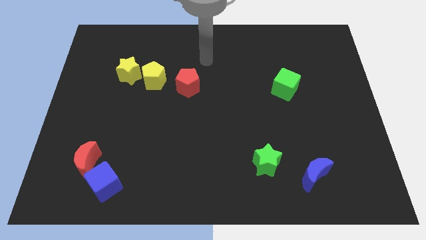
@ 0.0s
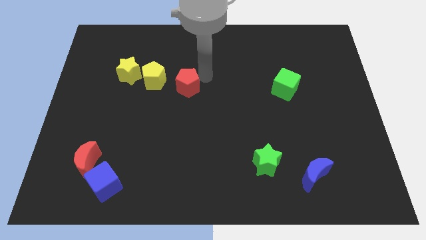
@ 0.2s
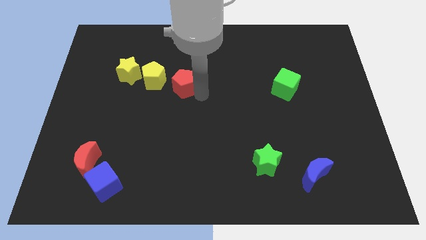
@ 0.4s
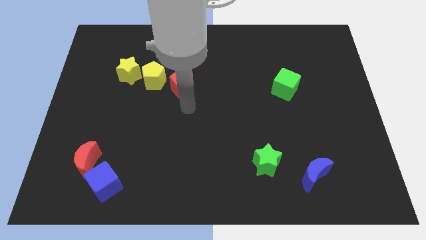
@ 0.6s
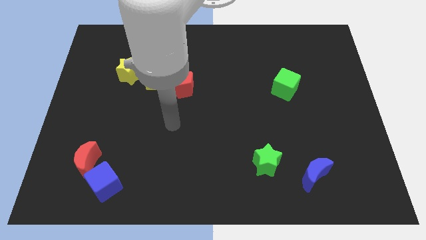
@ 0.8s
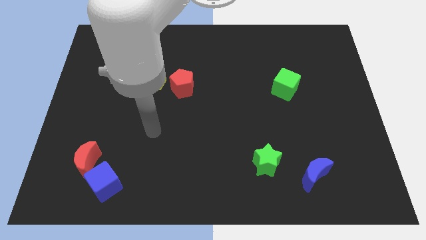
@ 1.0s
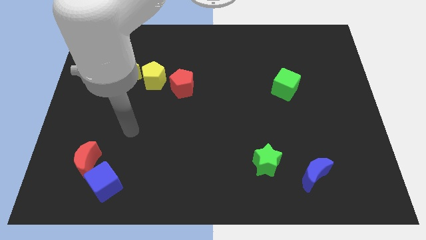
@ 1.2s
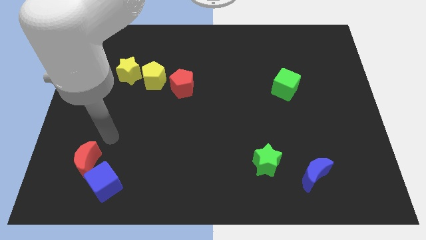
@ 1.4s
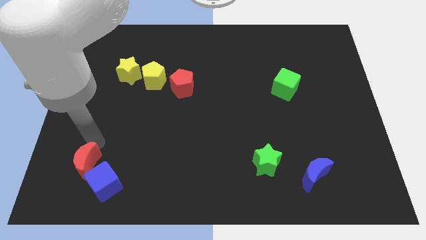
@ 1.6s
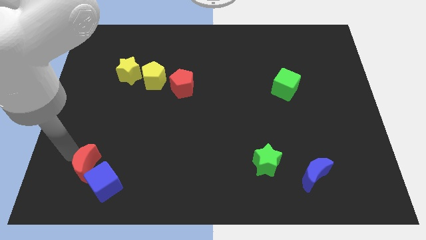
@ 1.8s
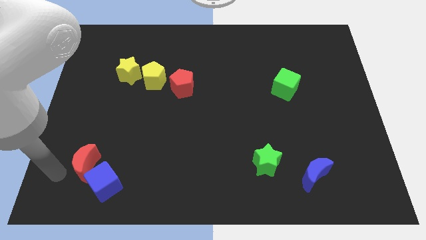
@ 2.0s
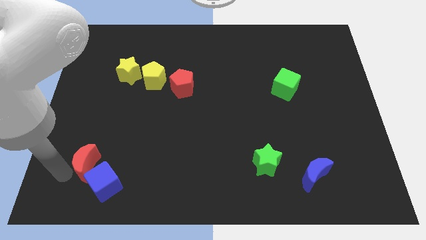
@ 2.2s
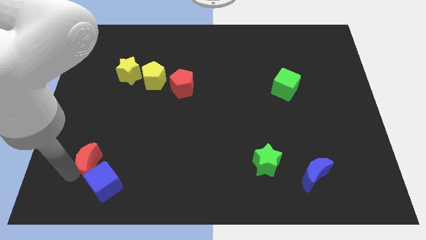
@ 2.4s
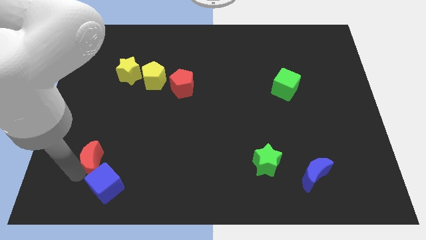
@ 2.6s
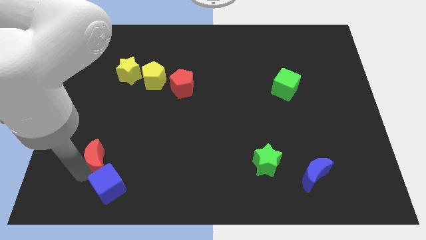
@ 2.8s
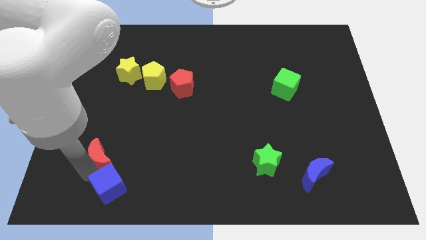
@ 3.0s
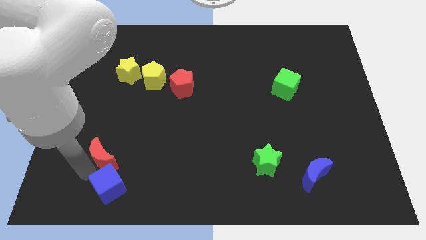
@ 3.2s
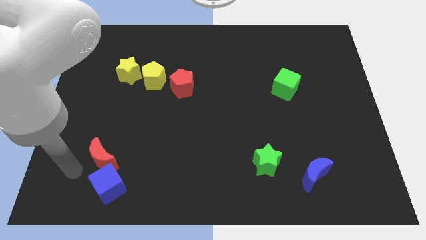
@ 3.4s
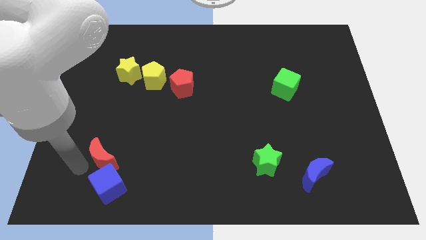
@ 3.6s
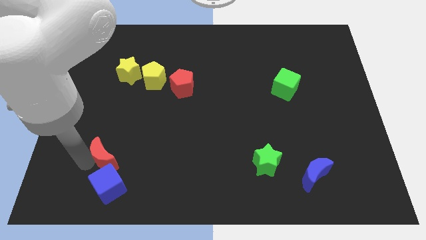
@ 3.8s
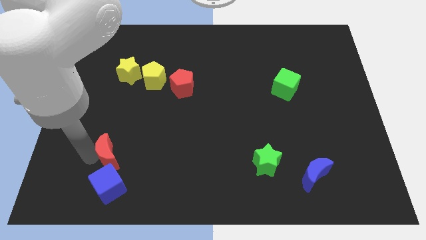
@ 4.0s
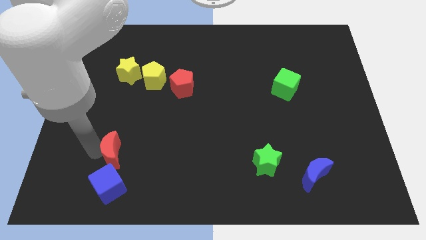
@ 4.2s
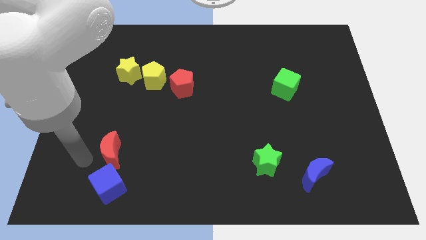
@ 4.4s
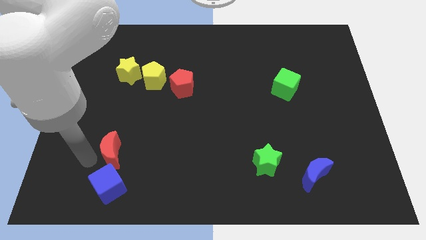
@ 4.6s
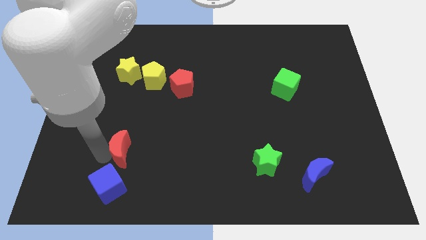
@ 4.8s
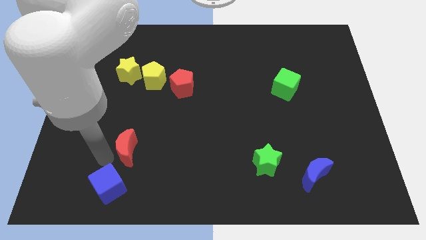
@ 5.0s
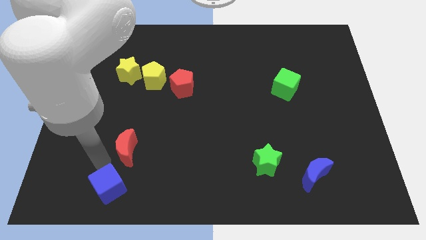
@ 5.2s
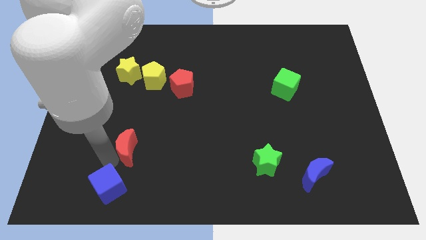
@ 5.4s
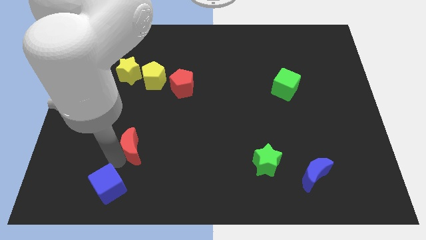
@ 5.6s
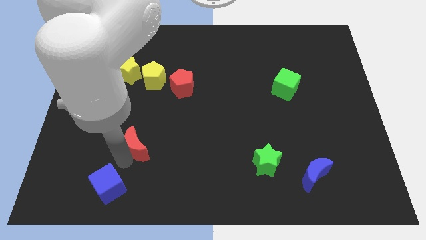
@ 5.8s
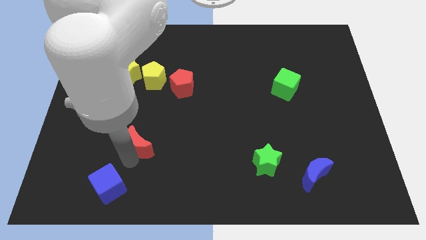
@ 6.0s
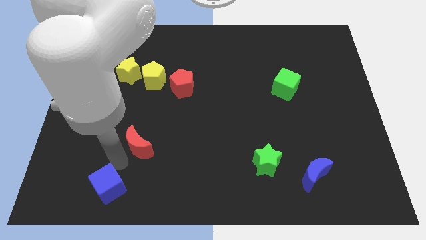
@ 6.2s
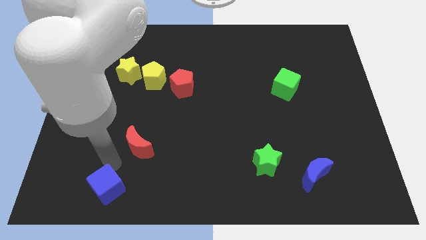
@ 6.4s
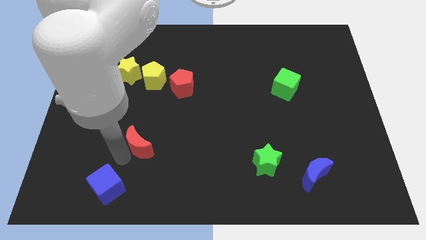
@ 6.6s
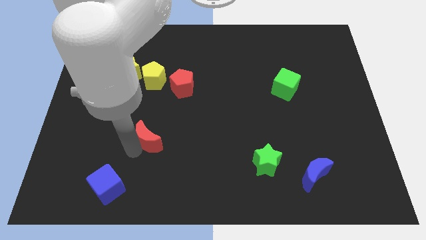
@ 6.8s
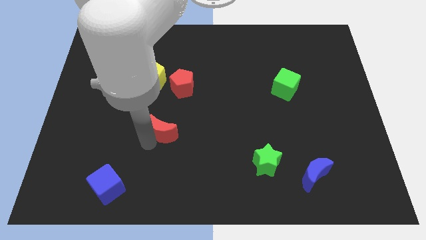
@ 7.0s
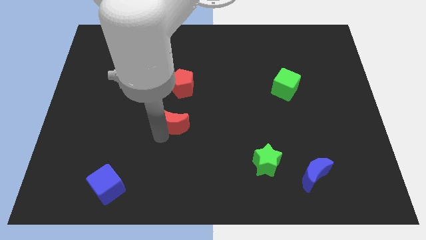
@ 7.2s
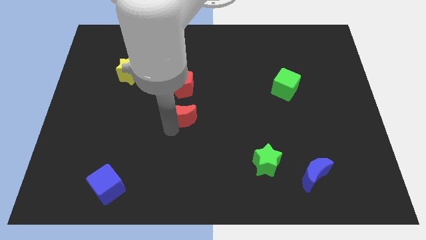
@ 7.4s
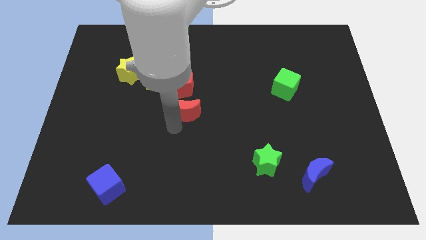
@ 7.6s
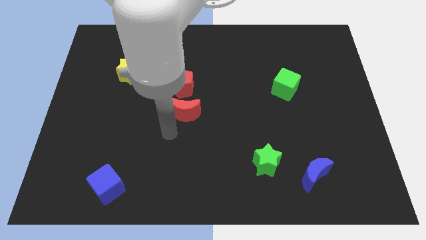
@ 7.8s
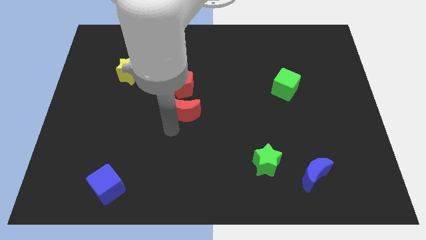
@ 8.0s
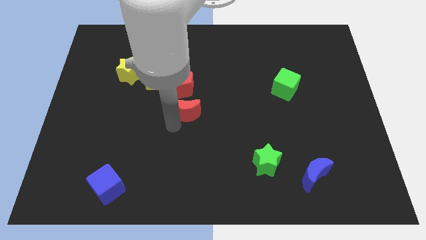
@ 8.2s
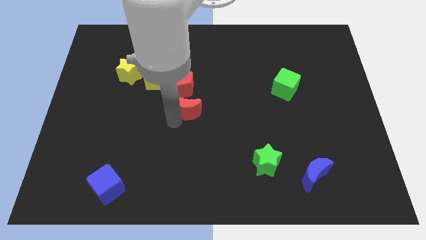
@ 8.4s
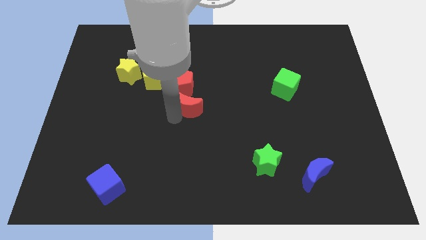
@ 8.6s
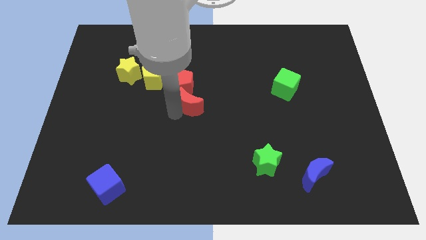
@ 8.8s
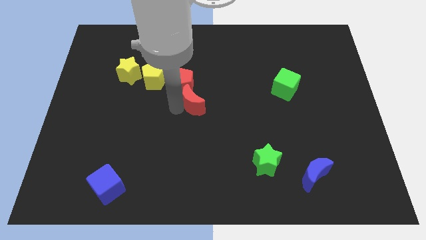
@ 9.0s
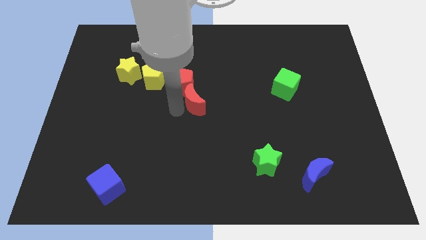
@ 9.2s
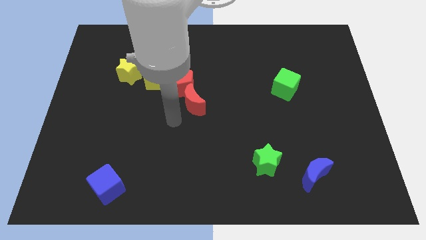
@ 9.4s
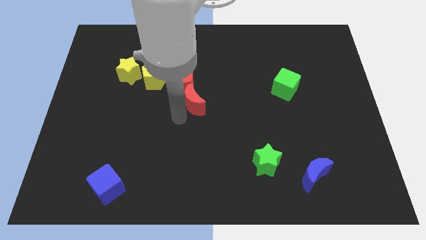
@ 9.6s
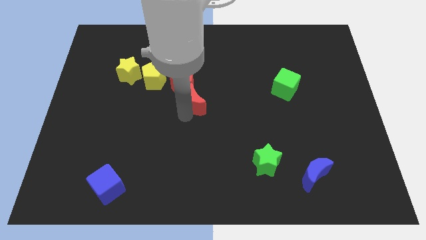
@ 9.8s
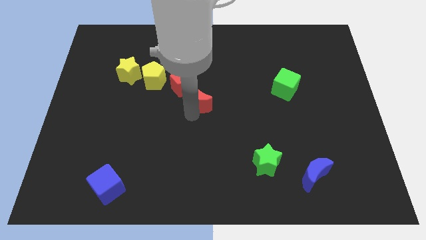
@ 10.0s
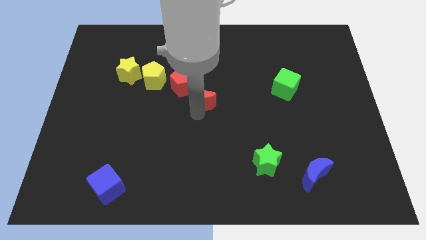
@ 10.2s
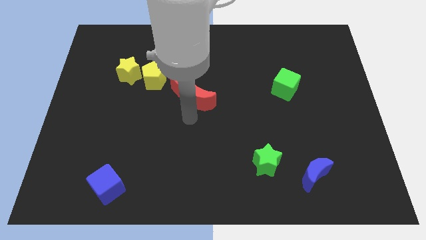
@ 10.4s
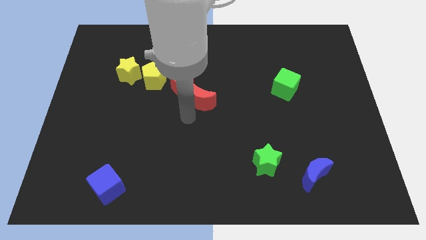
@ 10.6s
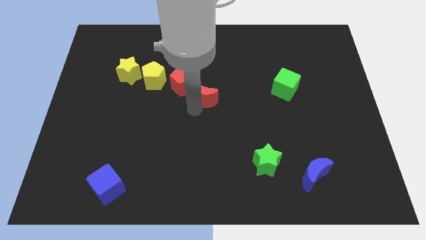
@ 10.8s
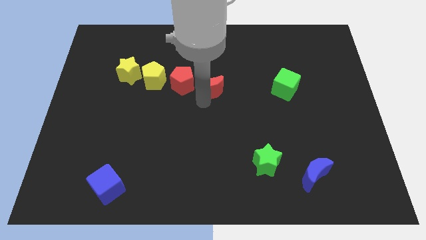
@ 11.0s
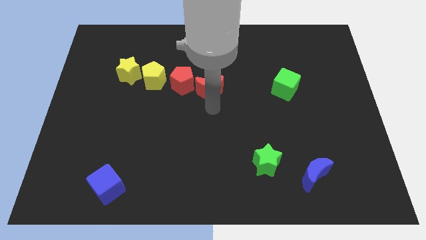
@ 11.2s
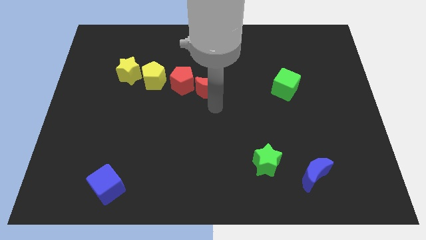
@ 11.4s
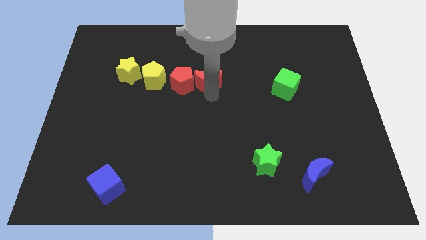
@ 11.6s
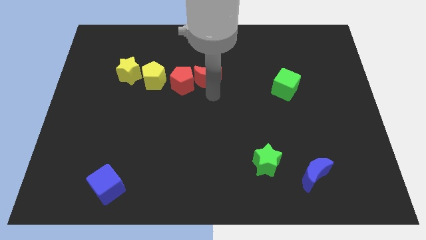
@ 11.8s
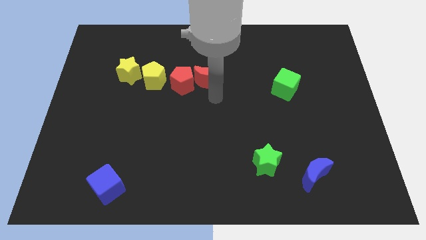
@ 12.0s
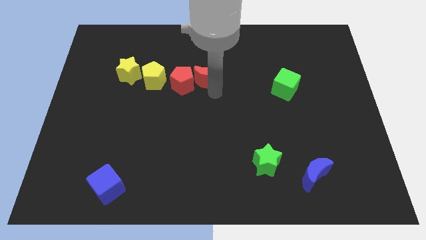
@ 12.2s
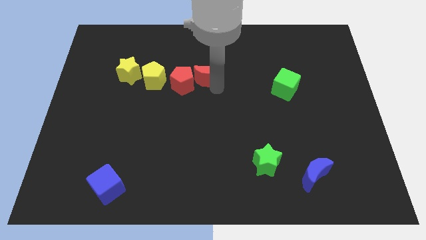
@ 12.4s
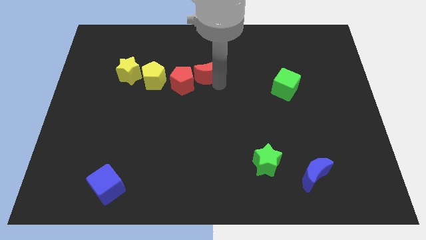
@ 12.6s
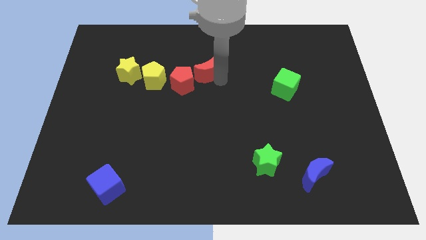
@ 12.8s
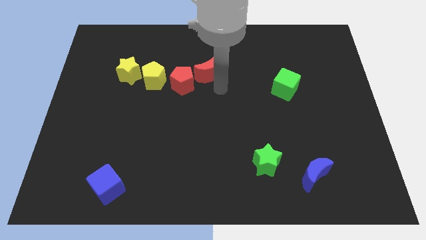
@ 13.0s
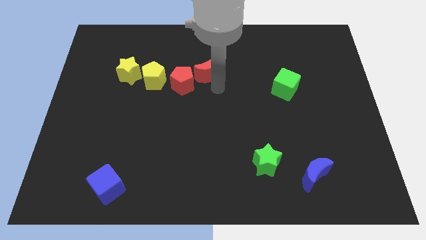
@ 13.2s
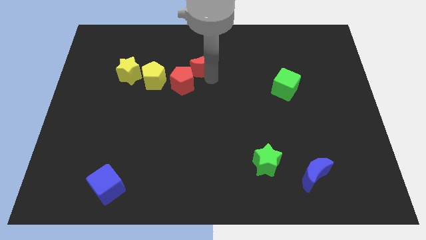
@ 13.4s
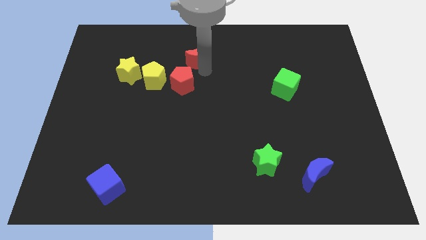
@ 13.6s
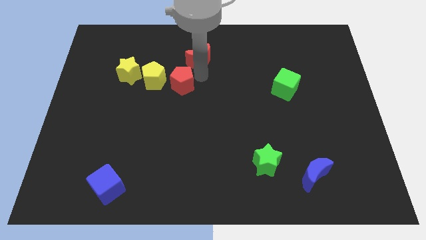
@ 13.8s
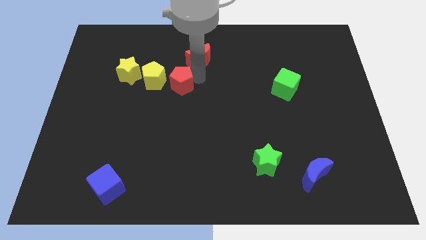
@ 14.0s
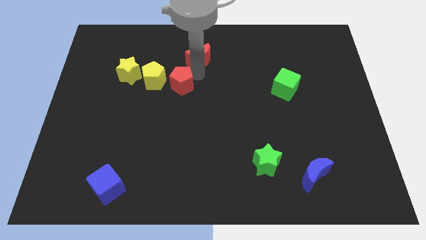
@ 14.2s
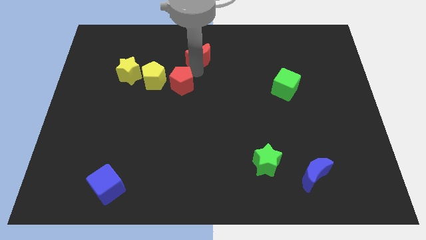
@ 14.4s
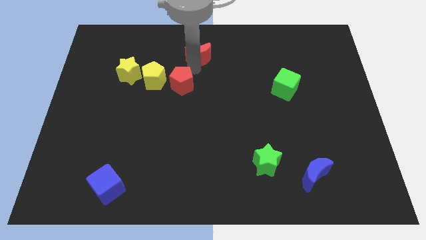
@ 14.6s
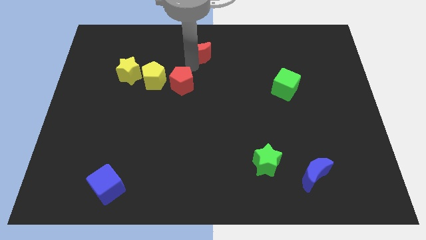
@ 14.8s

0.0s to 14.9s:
move the red moon to the towards your base

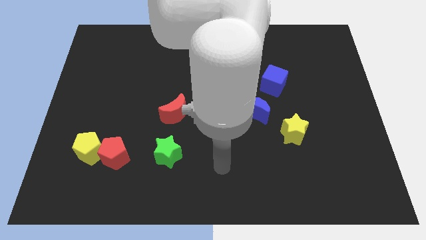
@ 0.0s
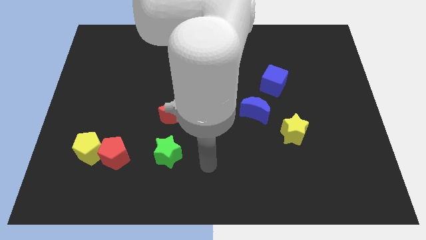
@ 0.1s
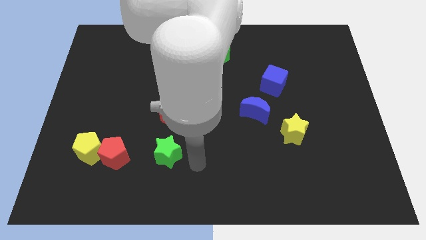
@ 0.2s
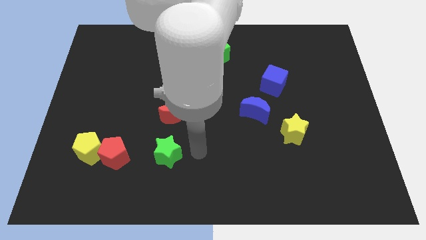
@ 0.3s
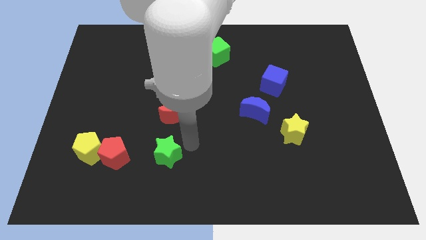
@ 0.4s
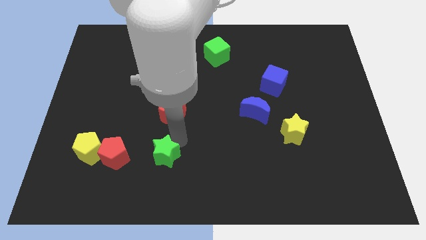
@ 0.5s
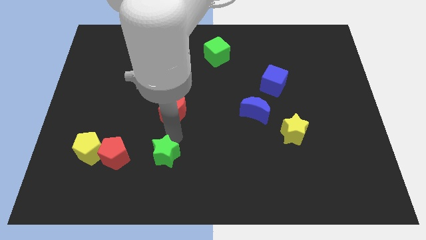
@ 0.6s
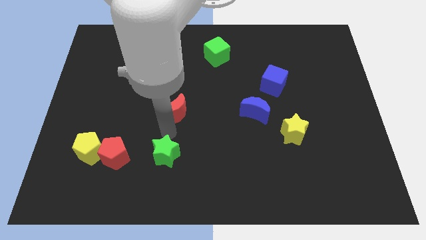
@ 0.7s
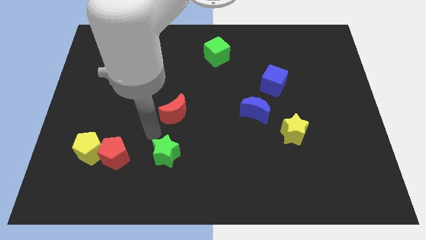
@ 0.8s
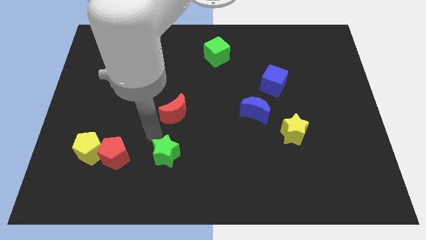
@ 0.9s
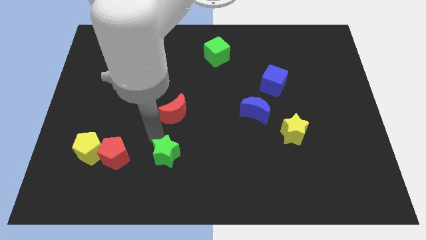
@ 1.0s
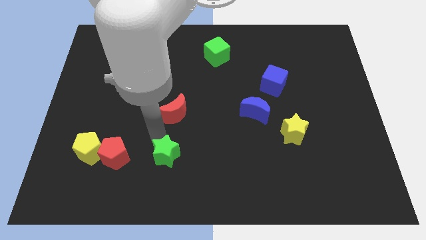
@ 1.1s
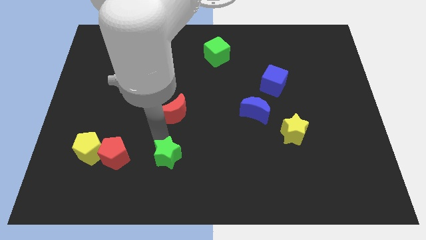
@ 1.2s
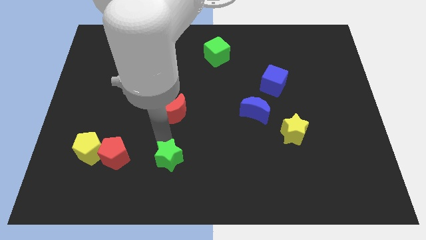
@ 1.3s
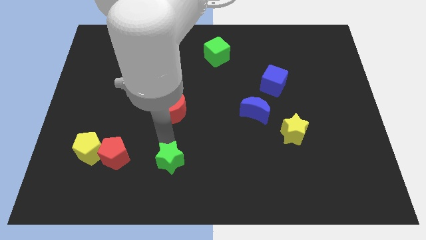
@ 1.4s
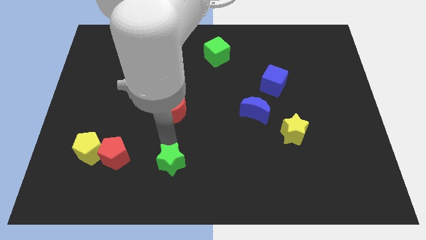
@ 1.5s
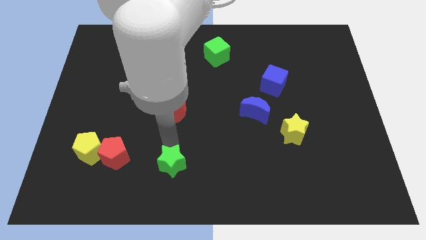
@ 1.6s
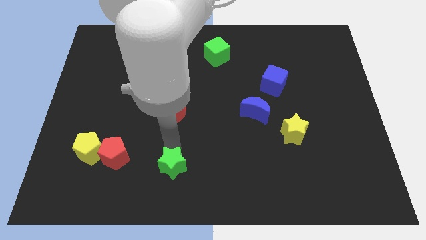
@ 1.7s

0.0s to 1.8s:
put the green star to the bottom
